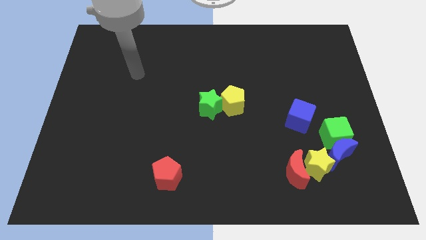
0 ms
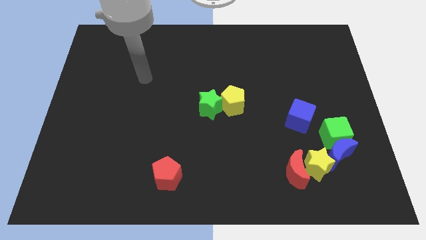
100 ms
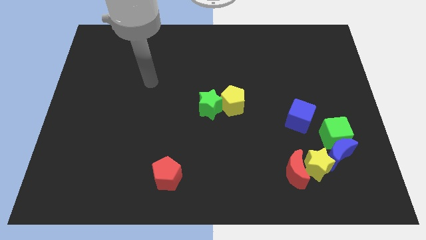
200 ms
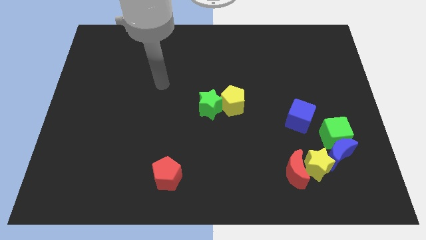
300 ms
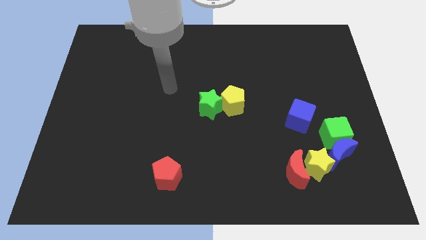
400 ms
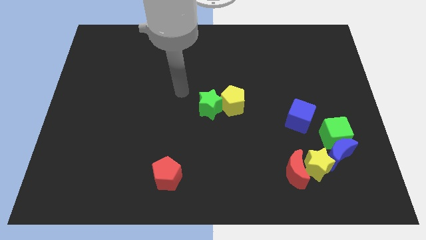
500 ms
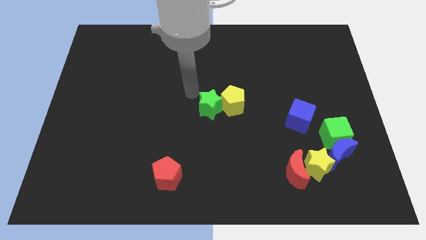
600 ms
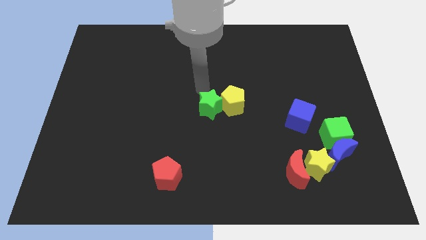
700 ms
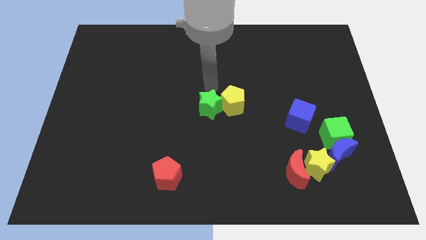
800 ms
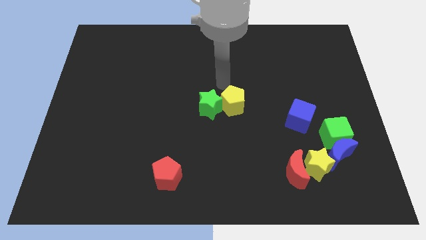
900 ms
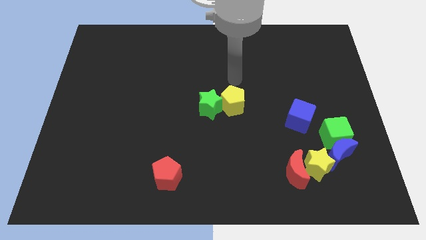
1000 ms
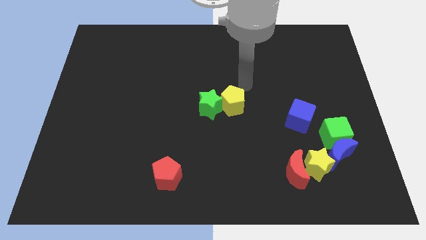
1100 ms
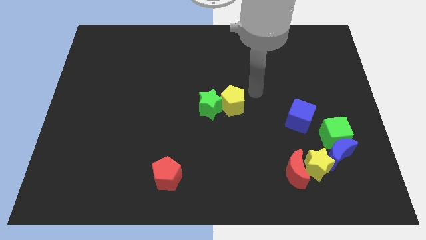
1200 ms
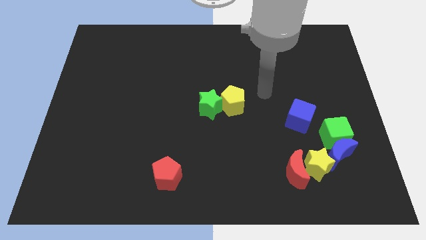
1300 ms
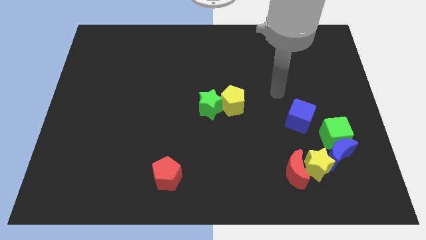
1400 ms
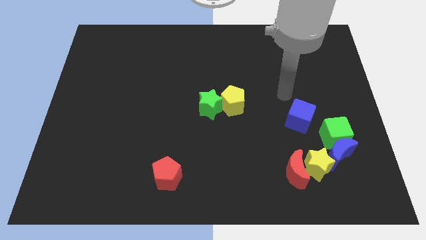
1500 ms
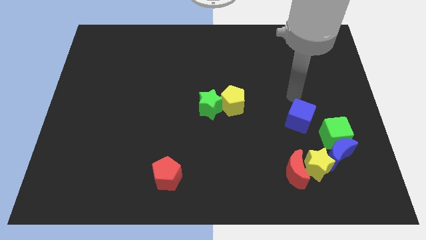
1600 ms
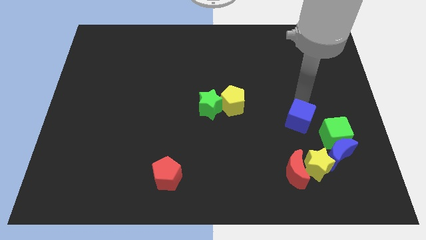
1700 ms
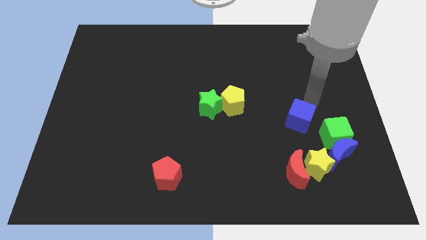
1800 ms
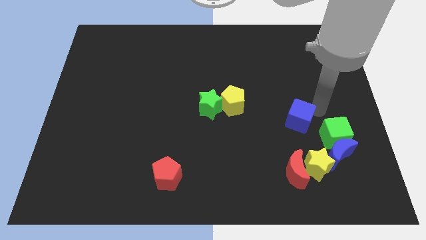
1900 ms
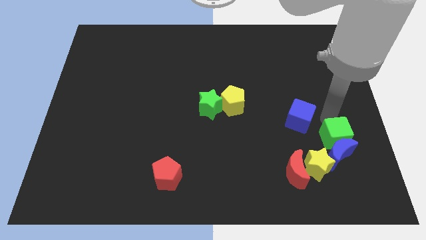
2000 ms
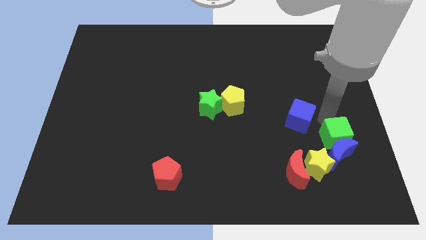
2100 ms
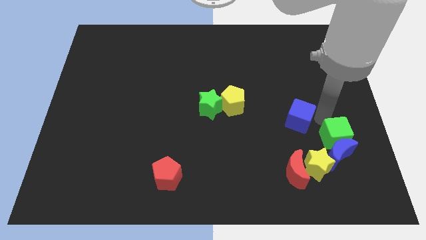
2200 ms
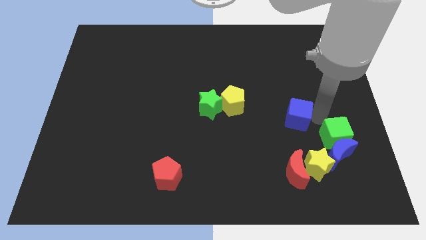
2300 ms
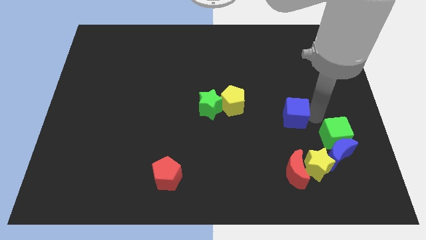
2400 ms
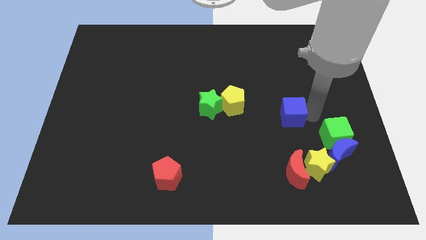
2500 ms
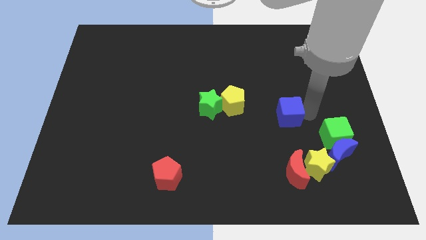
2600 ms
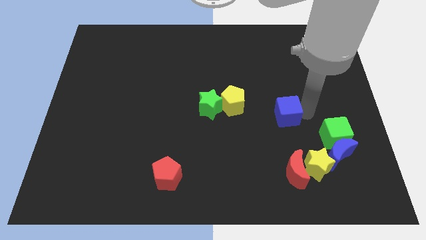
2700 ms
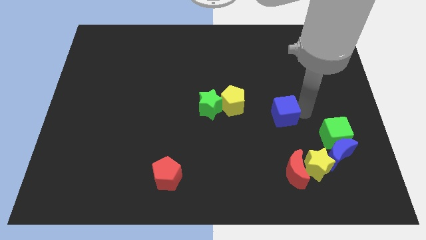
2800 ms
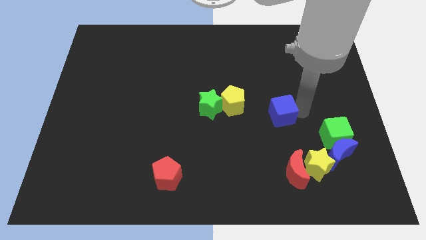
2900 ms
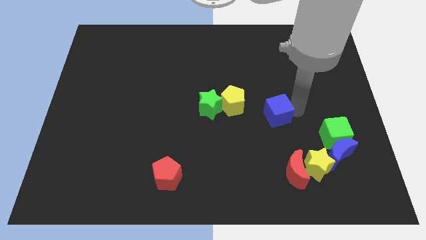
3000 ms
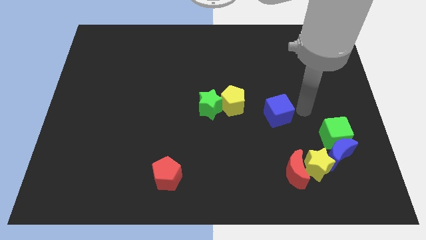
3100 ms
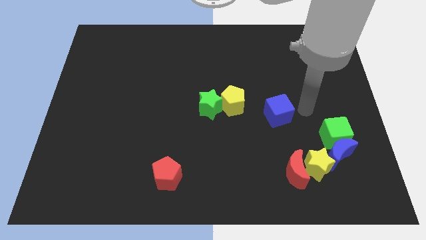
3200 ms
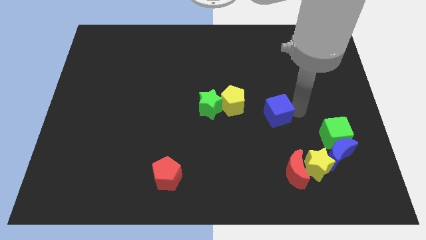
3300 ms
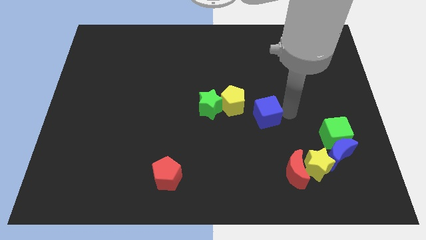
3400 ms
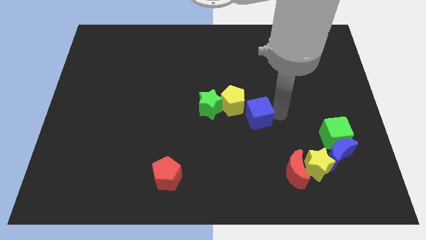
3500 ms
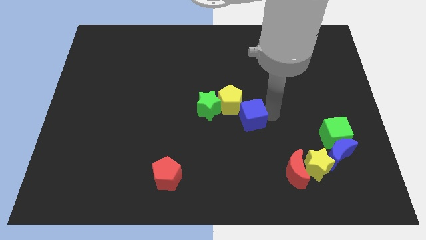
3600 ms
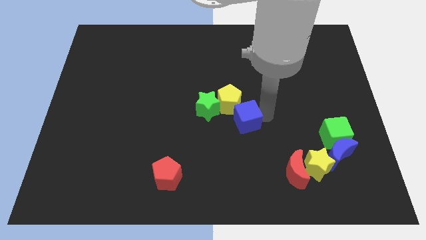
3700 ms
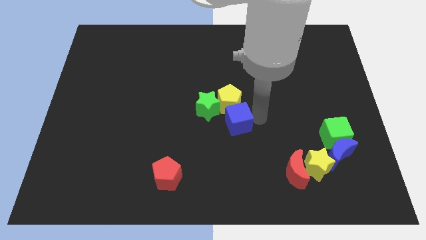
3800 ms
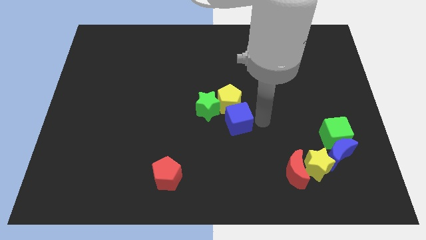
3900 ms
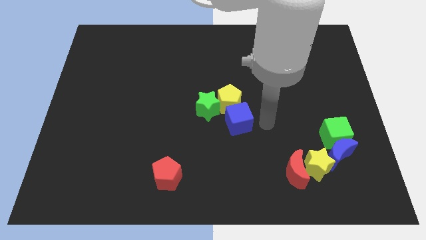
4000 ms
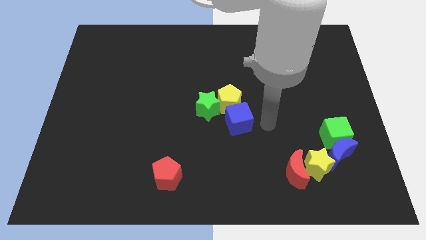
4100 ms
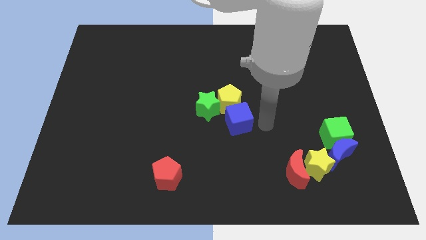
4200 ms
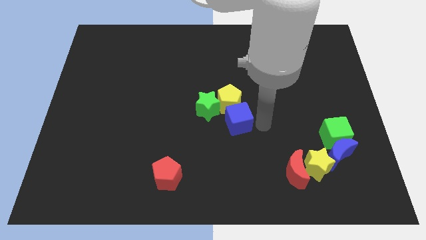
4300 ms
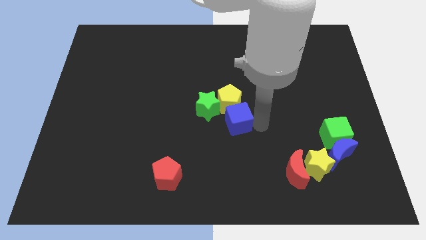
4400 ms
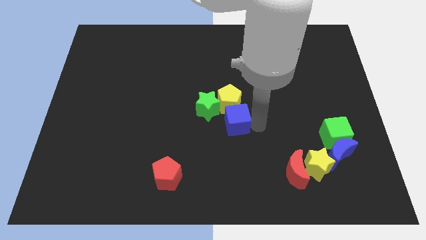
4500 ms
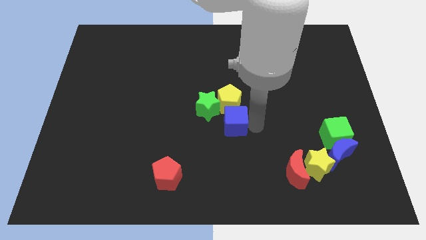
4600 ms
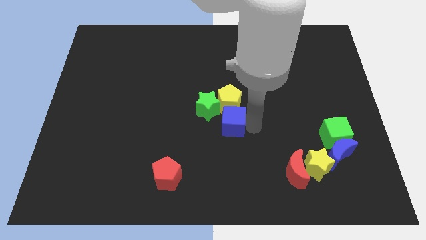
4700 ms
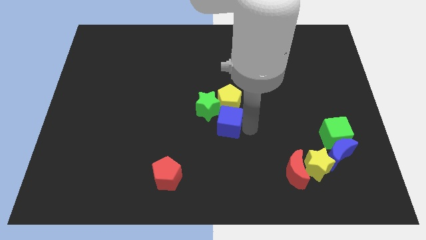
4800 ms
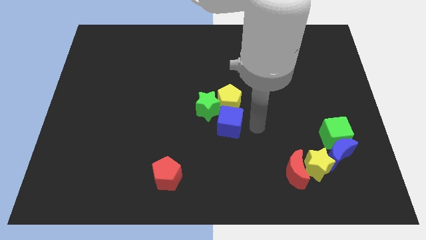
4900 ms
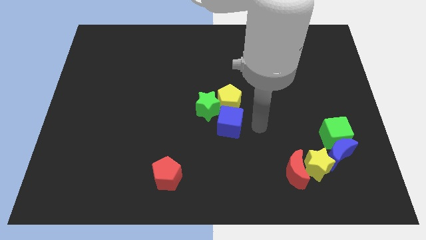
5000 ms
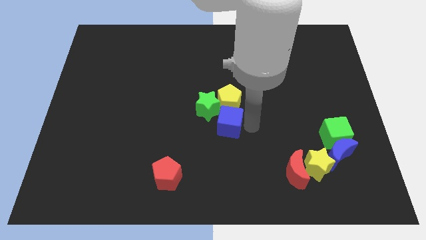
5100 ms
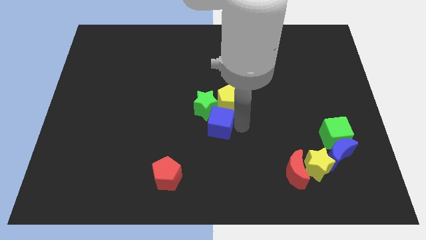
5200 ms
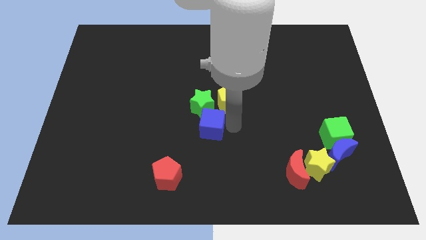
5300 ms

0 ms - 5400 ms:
move the blue cube left

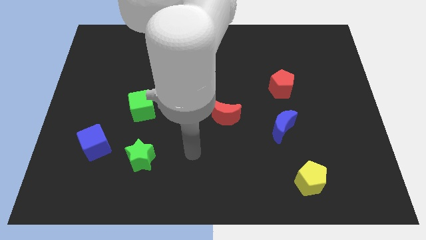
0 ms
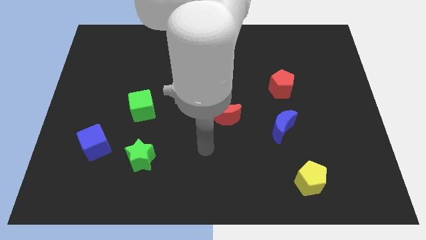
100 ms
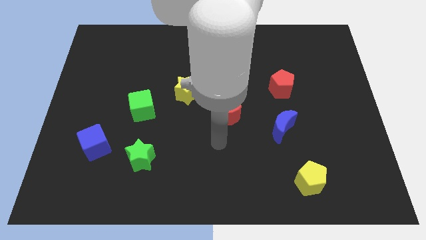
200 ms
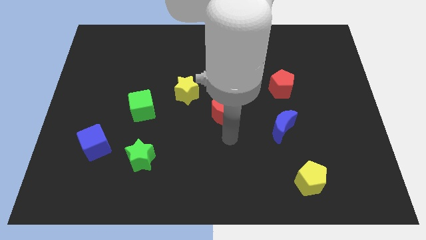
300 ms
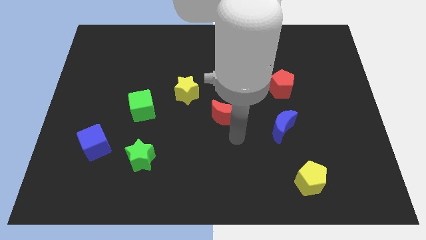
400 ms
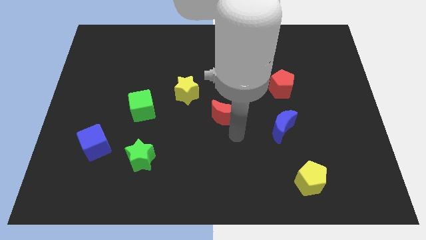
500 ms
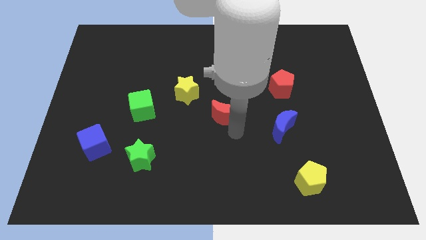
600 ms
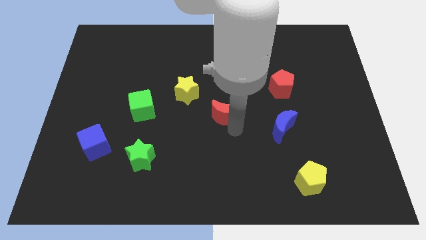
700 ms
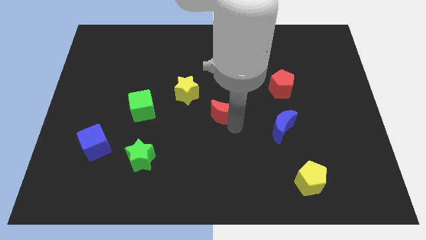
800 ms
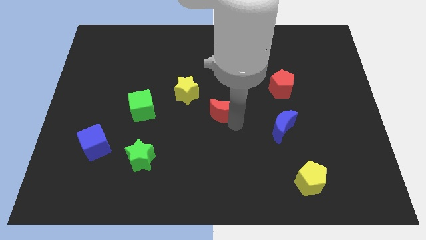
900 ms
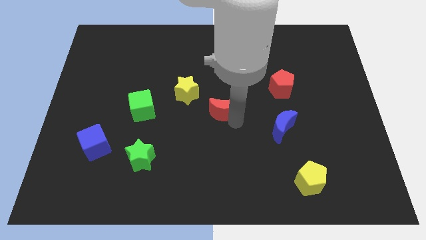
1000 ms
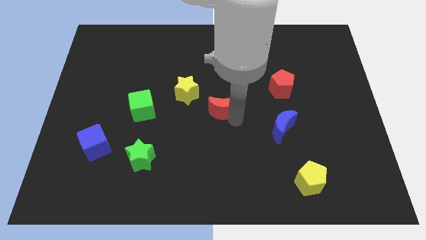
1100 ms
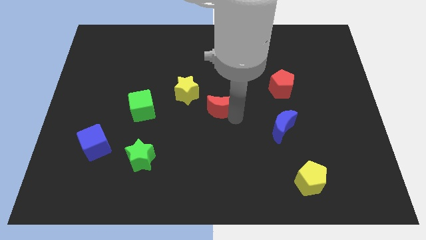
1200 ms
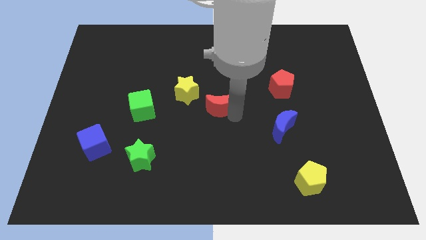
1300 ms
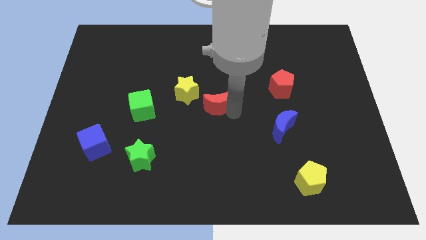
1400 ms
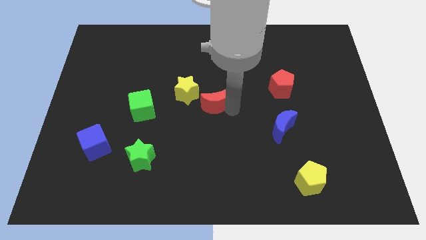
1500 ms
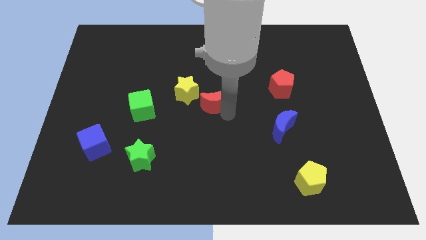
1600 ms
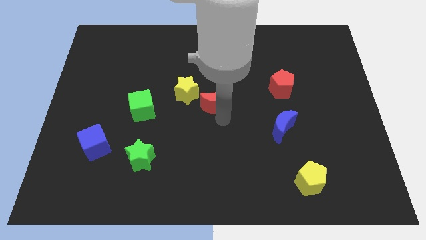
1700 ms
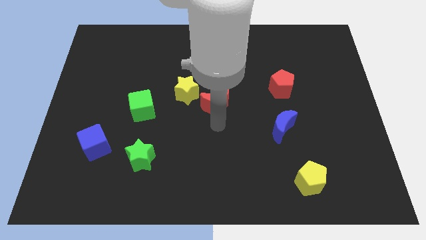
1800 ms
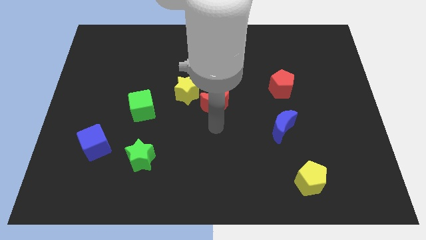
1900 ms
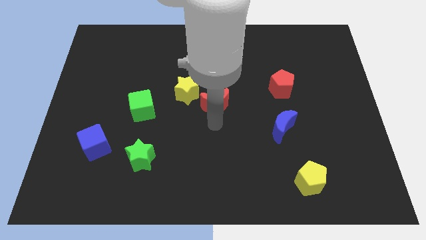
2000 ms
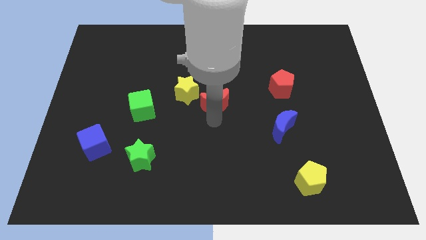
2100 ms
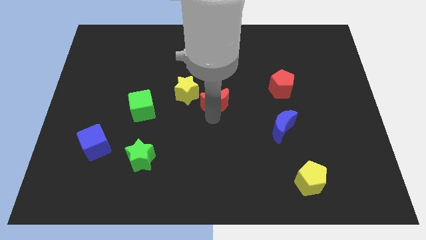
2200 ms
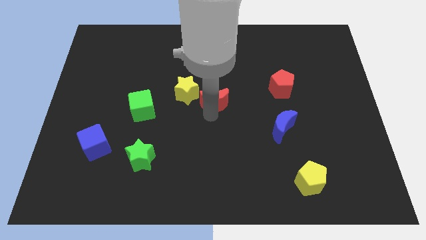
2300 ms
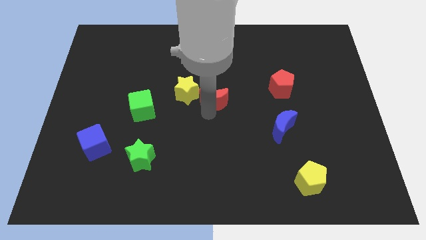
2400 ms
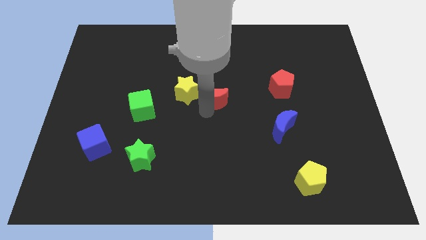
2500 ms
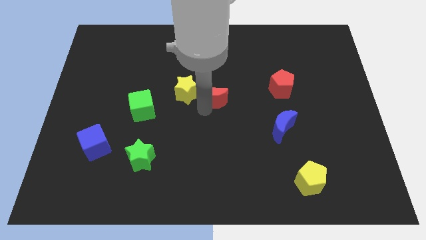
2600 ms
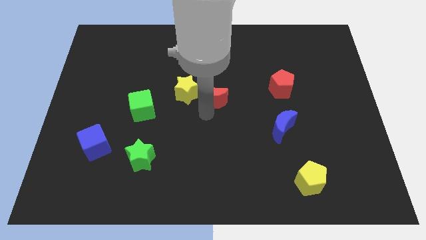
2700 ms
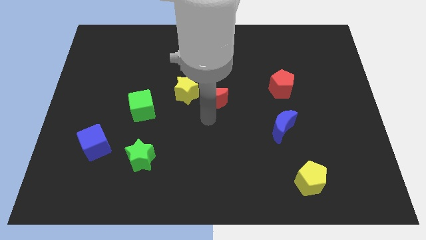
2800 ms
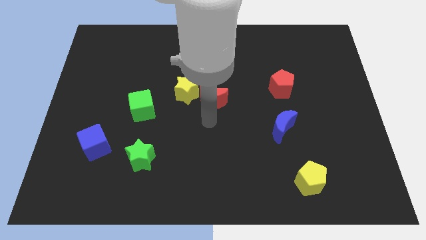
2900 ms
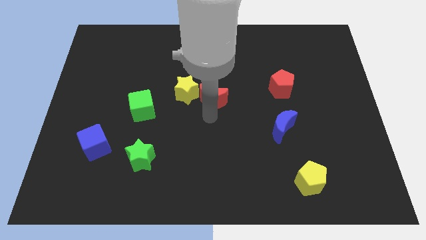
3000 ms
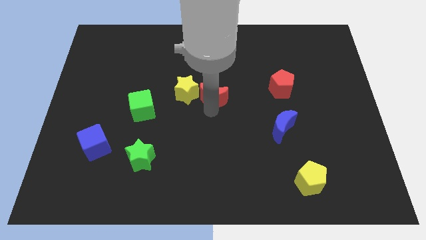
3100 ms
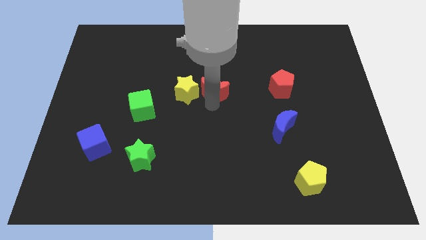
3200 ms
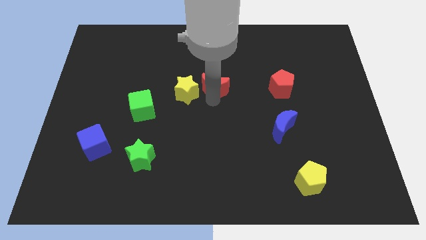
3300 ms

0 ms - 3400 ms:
push the red moon up and to the left diagonally slightly
